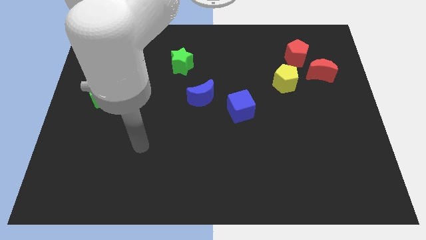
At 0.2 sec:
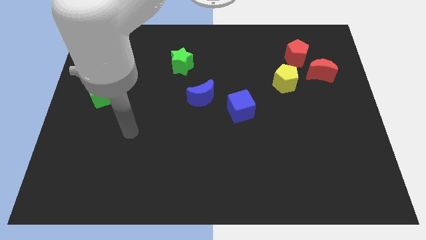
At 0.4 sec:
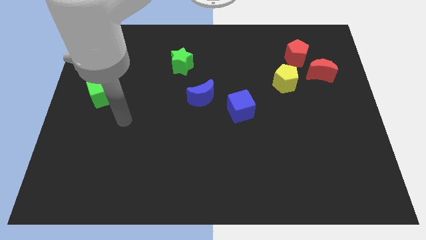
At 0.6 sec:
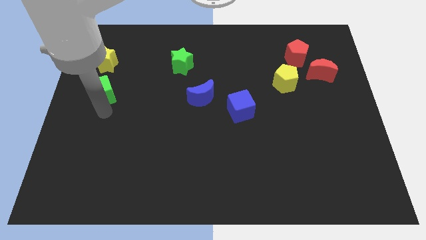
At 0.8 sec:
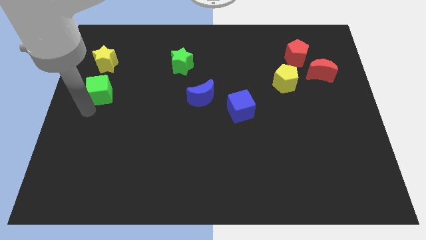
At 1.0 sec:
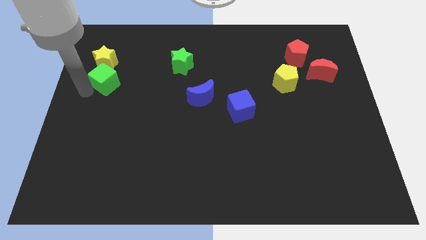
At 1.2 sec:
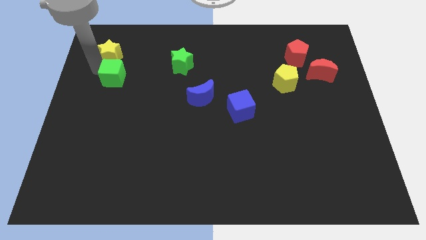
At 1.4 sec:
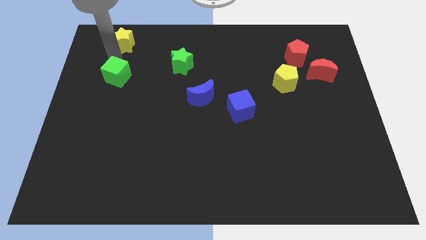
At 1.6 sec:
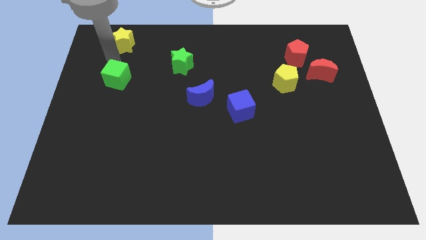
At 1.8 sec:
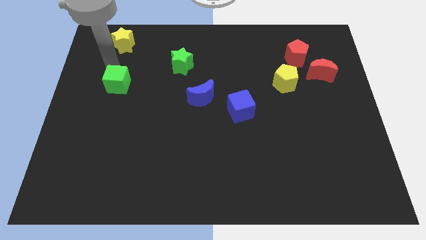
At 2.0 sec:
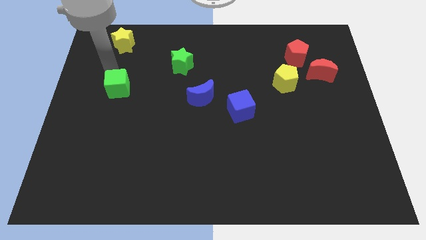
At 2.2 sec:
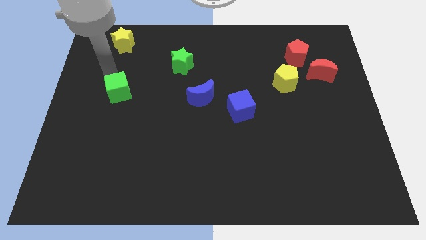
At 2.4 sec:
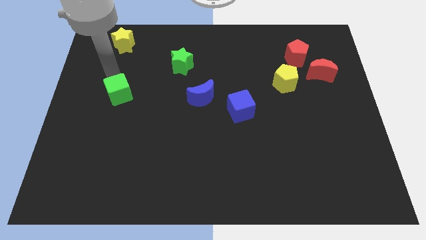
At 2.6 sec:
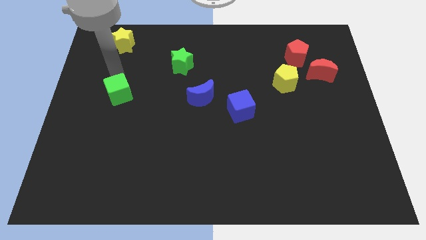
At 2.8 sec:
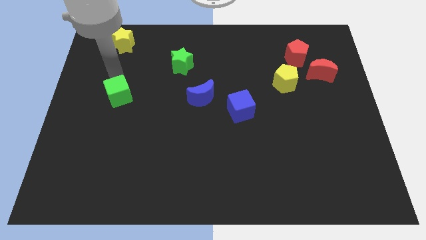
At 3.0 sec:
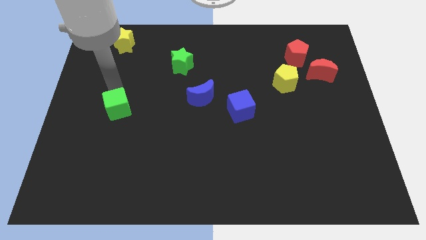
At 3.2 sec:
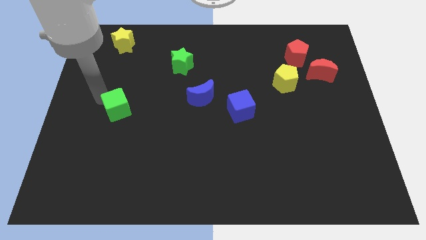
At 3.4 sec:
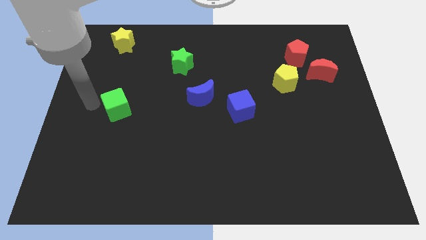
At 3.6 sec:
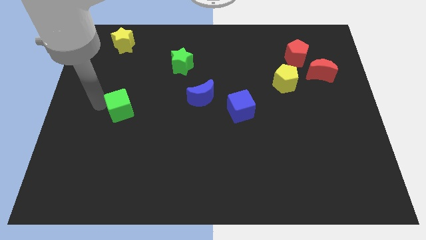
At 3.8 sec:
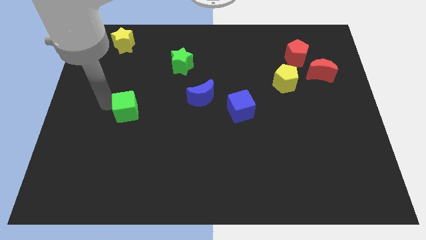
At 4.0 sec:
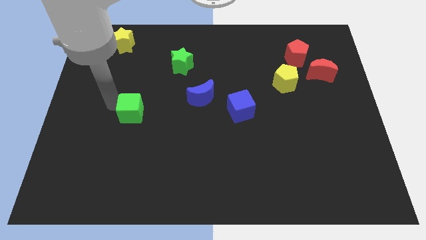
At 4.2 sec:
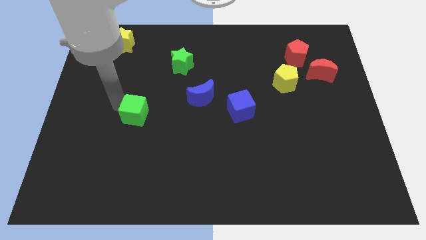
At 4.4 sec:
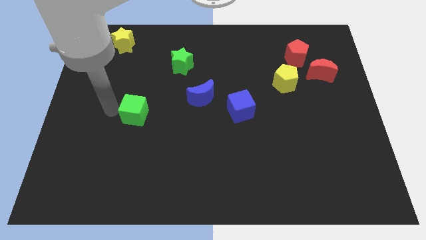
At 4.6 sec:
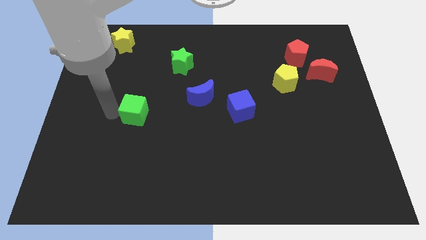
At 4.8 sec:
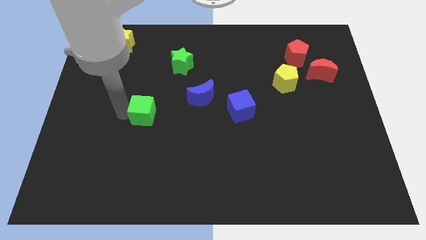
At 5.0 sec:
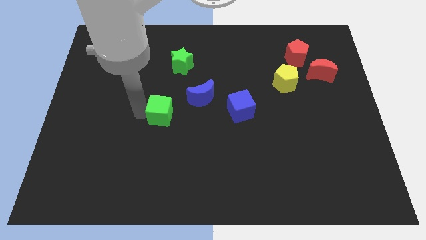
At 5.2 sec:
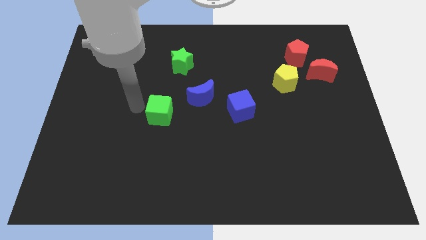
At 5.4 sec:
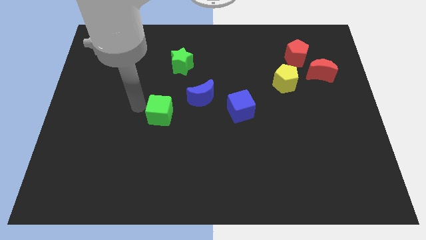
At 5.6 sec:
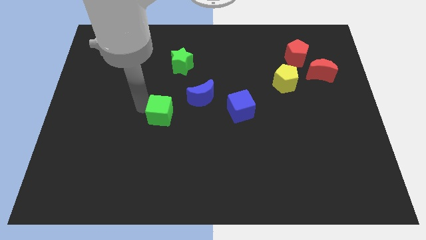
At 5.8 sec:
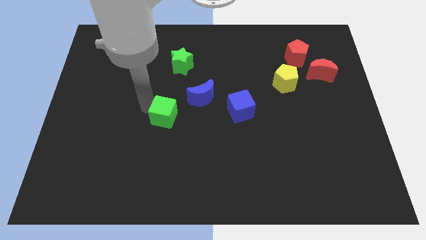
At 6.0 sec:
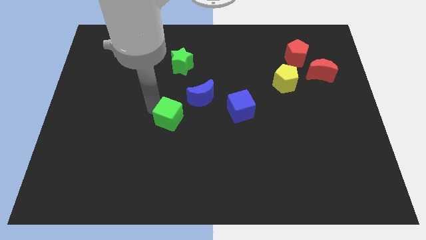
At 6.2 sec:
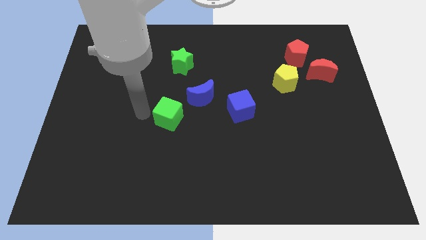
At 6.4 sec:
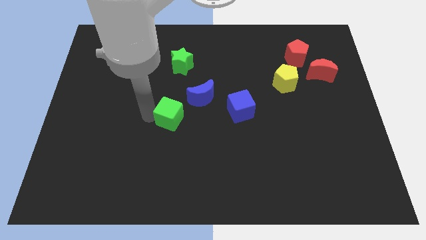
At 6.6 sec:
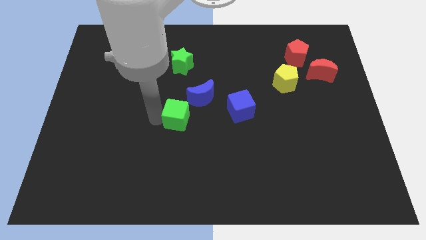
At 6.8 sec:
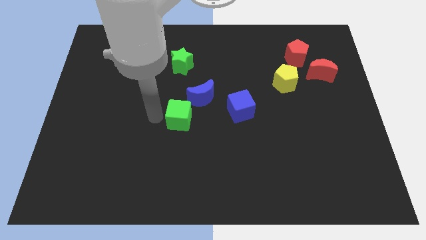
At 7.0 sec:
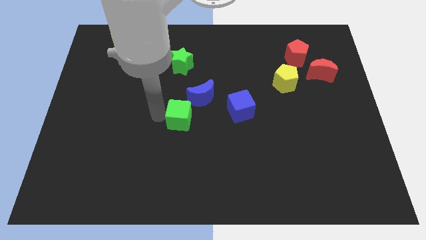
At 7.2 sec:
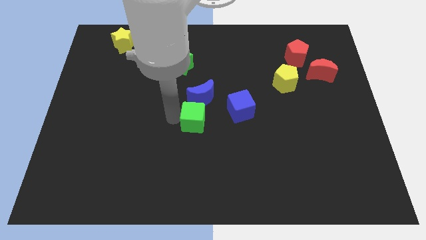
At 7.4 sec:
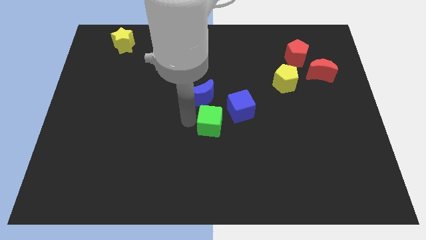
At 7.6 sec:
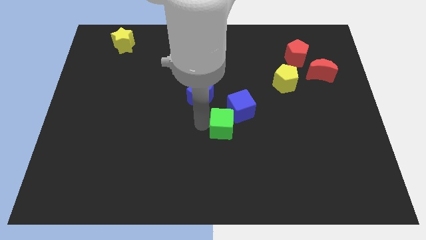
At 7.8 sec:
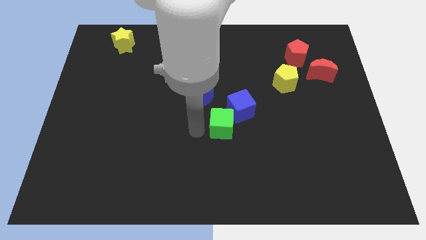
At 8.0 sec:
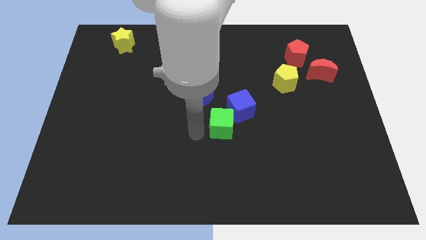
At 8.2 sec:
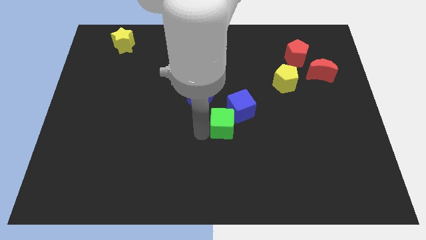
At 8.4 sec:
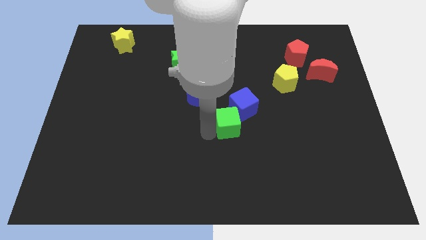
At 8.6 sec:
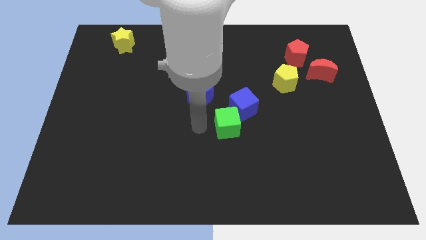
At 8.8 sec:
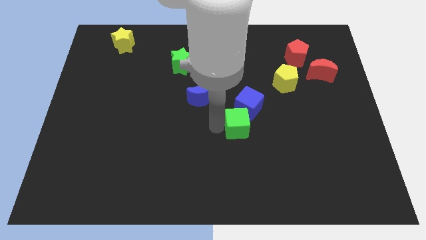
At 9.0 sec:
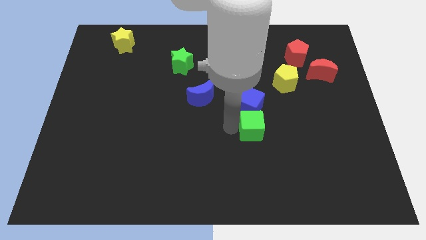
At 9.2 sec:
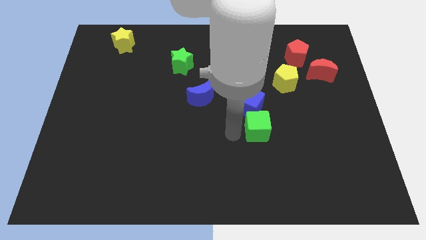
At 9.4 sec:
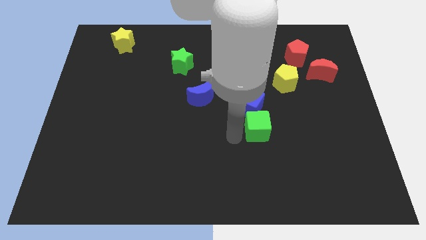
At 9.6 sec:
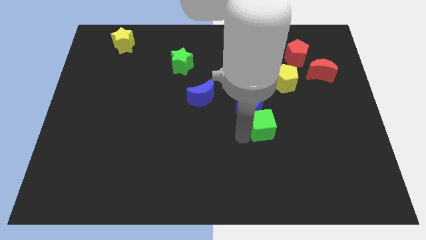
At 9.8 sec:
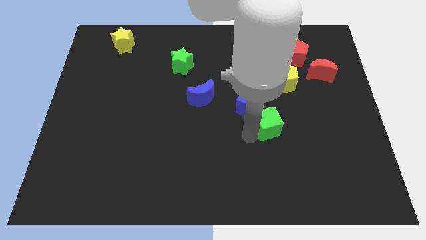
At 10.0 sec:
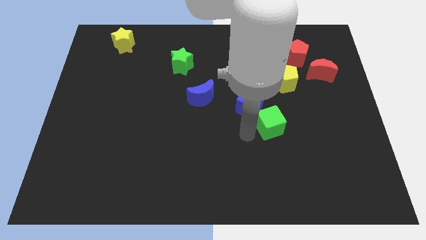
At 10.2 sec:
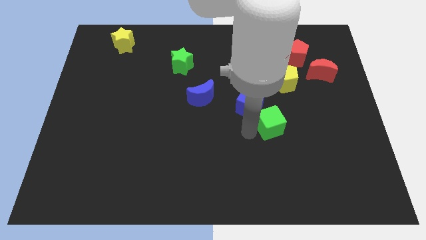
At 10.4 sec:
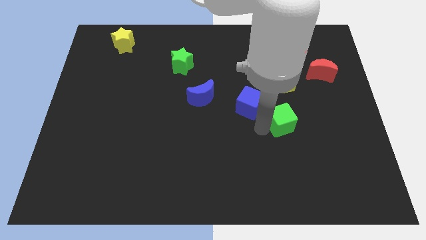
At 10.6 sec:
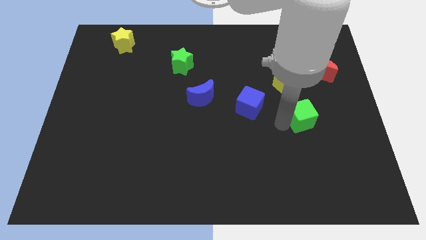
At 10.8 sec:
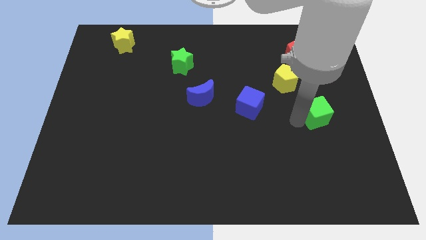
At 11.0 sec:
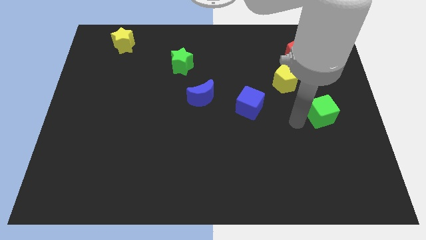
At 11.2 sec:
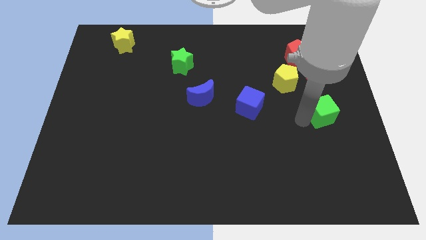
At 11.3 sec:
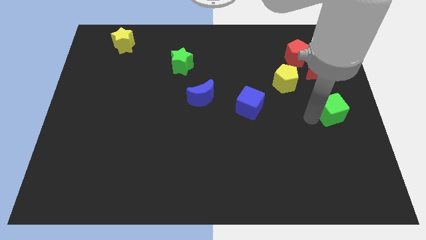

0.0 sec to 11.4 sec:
move the green cube to the center right
